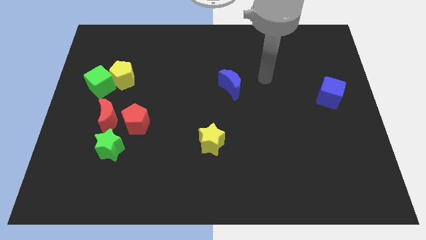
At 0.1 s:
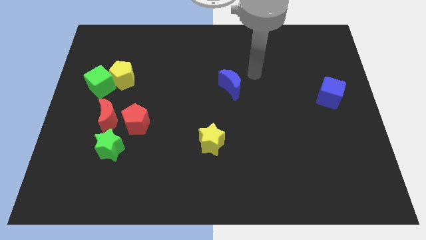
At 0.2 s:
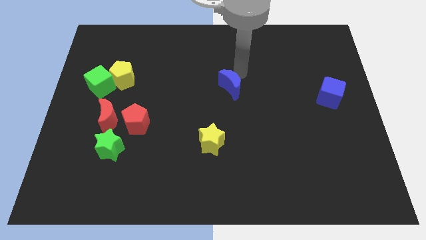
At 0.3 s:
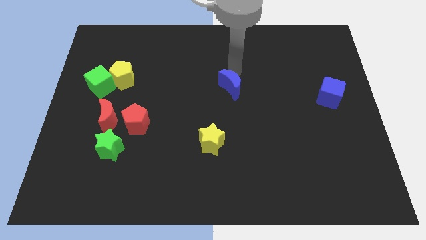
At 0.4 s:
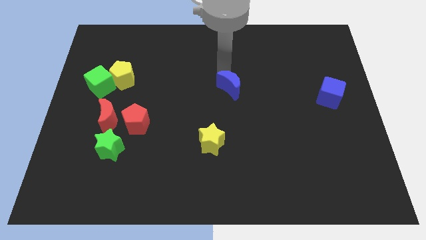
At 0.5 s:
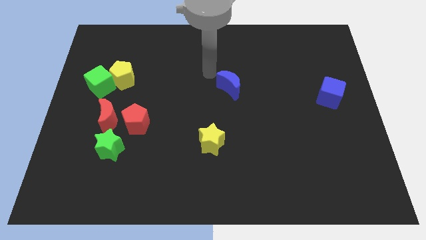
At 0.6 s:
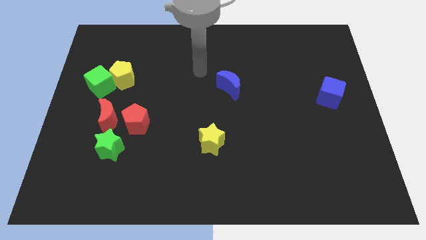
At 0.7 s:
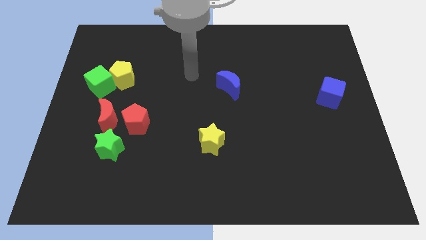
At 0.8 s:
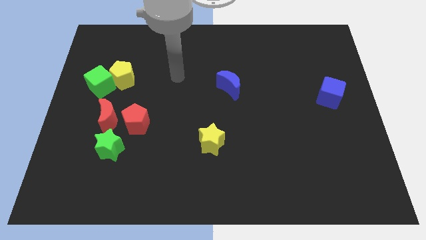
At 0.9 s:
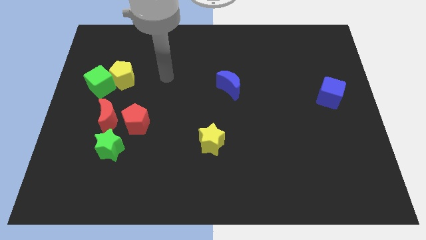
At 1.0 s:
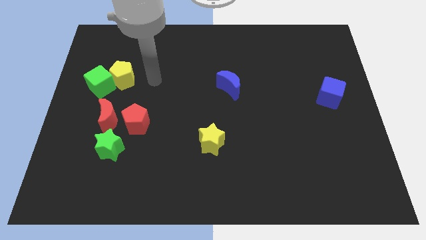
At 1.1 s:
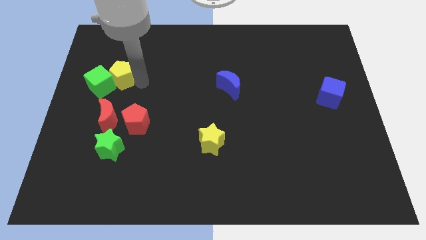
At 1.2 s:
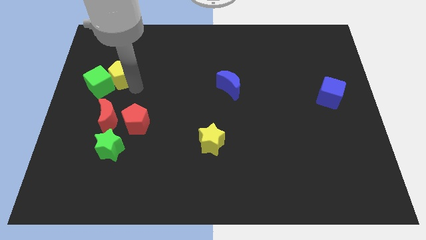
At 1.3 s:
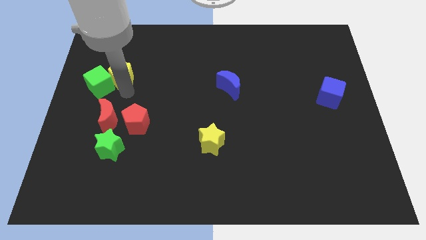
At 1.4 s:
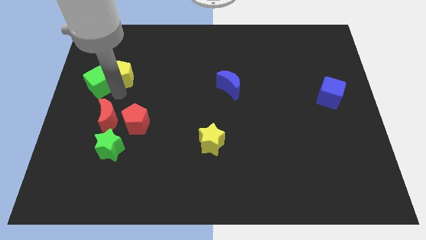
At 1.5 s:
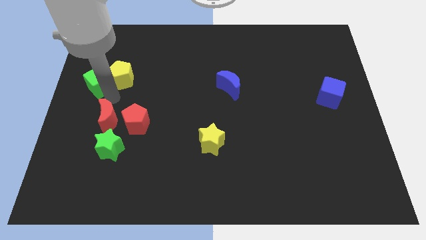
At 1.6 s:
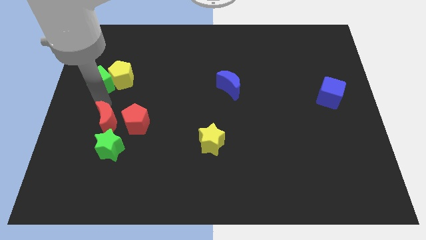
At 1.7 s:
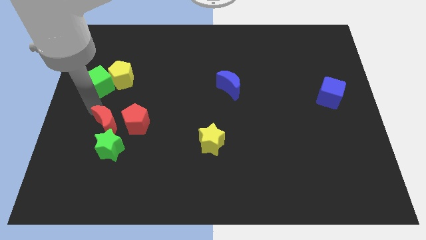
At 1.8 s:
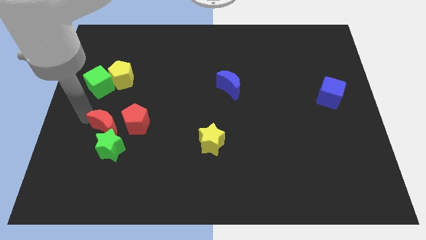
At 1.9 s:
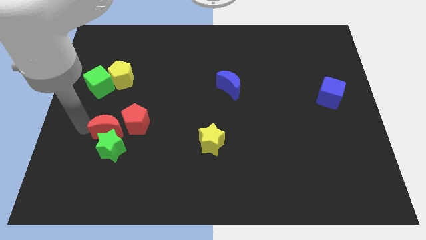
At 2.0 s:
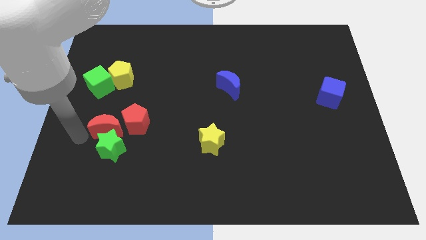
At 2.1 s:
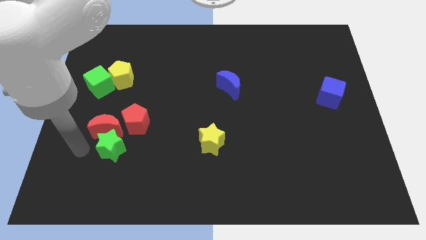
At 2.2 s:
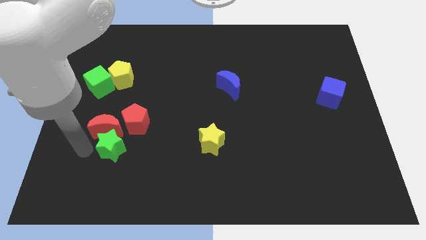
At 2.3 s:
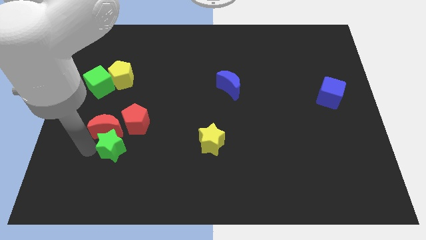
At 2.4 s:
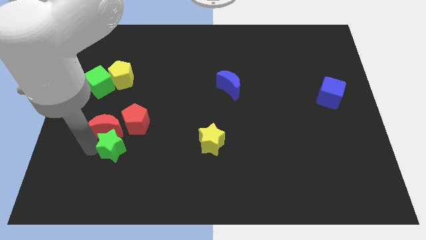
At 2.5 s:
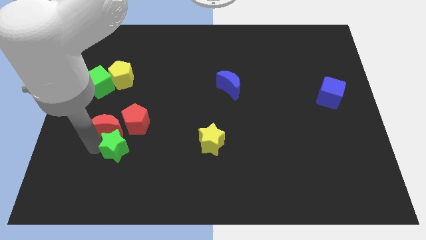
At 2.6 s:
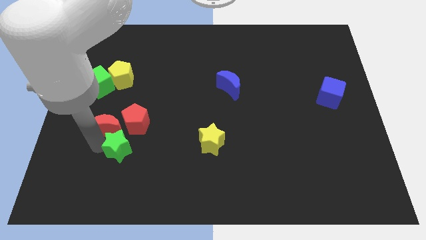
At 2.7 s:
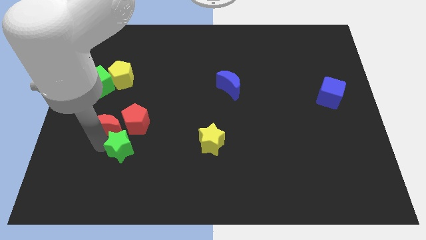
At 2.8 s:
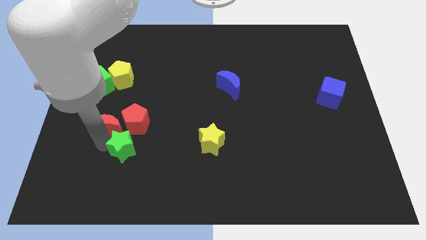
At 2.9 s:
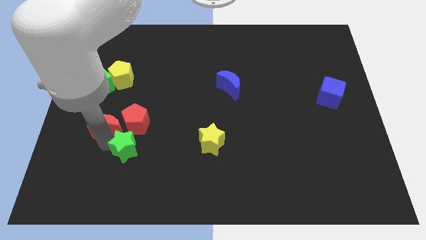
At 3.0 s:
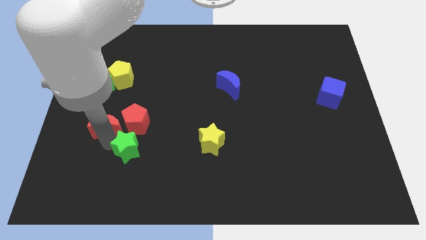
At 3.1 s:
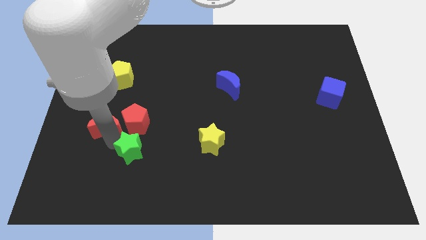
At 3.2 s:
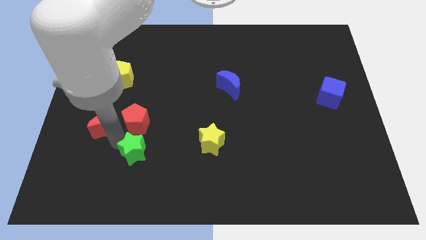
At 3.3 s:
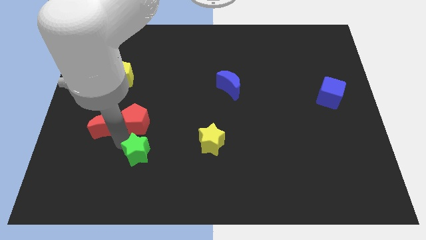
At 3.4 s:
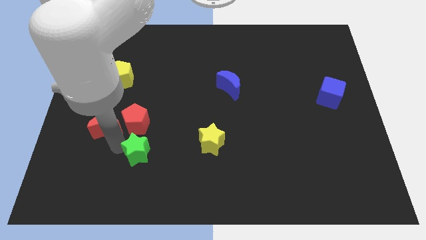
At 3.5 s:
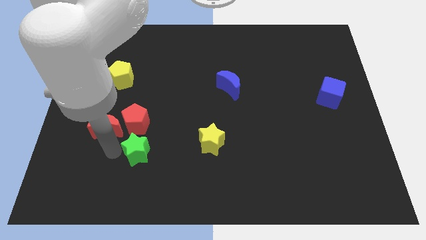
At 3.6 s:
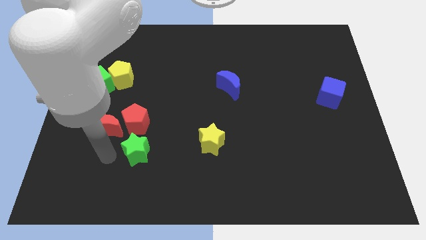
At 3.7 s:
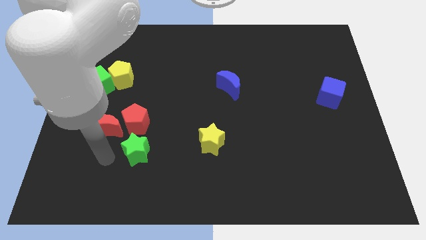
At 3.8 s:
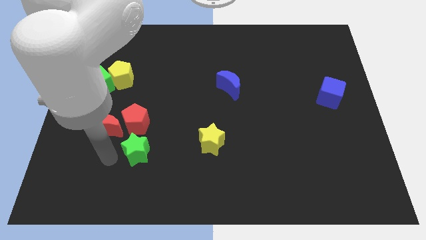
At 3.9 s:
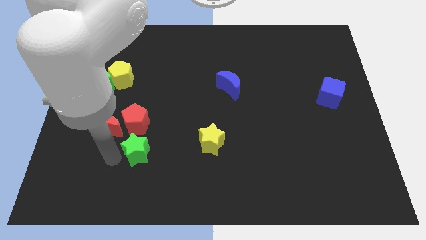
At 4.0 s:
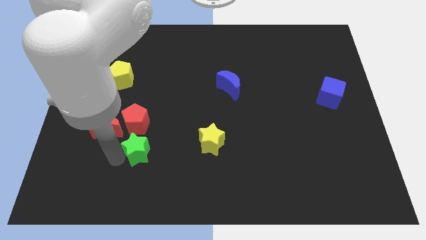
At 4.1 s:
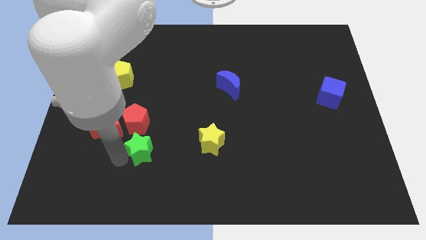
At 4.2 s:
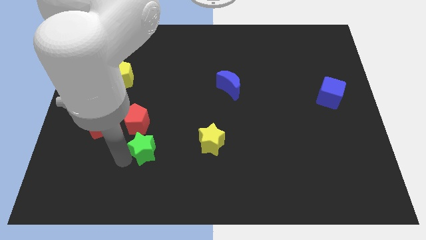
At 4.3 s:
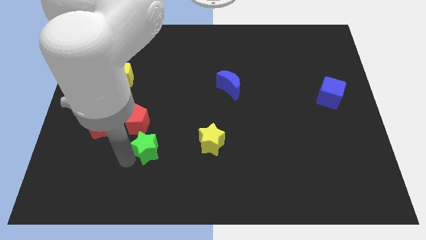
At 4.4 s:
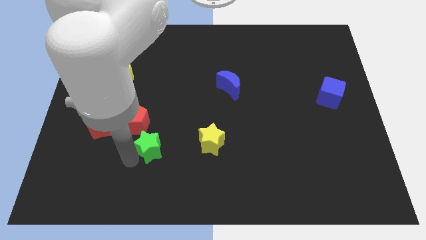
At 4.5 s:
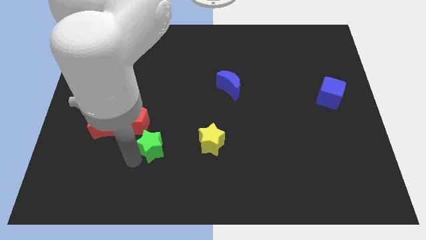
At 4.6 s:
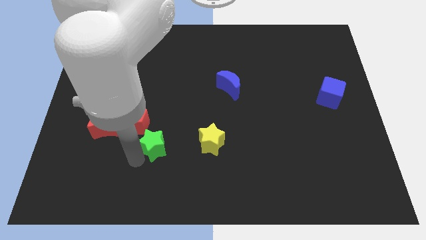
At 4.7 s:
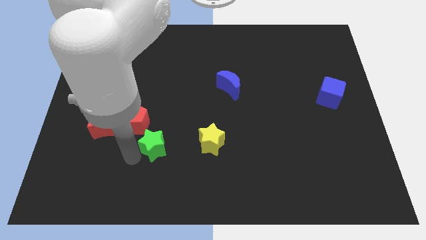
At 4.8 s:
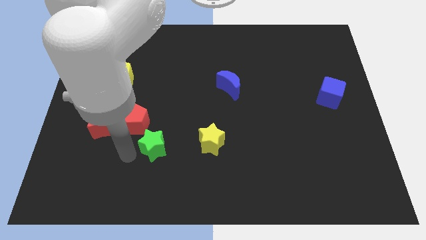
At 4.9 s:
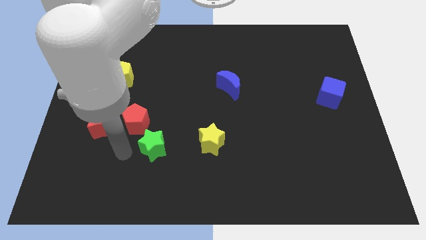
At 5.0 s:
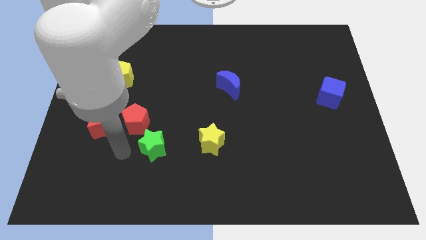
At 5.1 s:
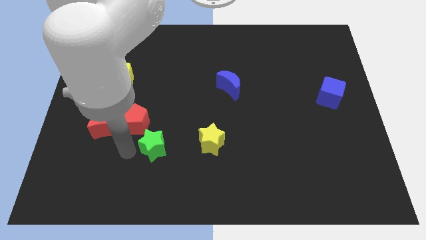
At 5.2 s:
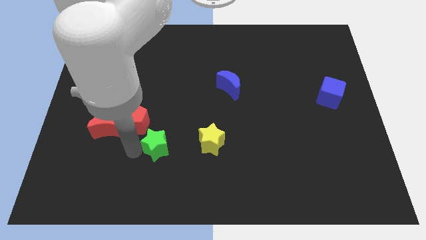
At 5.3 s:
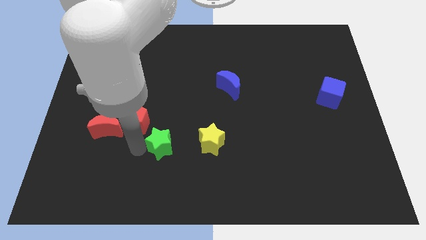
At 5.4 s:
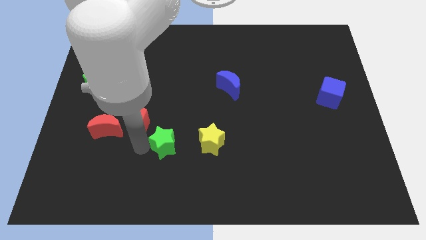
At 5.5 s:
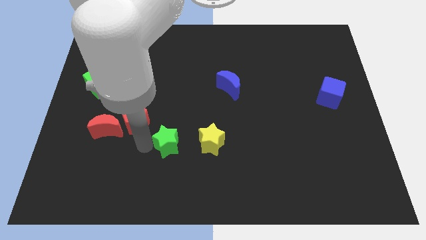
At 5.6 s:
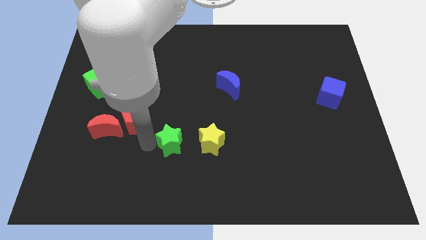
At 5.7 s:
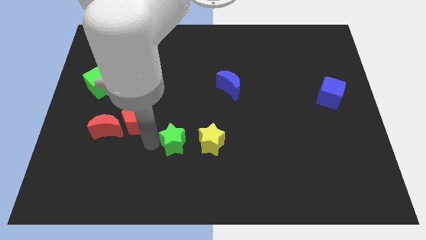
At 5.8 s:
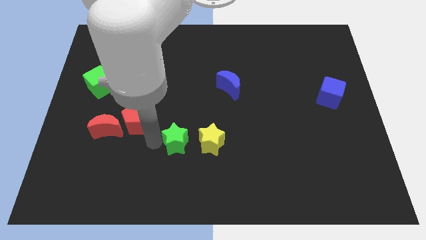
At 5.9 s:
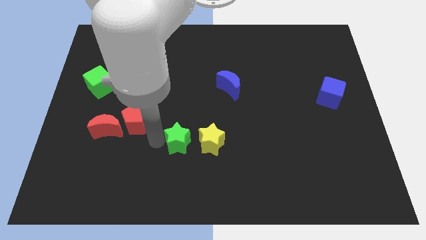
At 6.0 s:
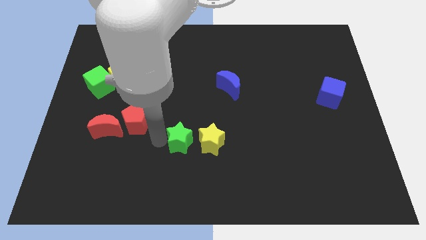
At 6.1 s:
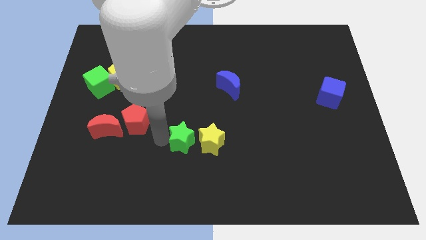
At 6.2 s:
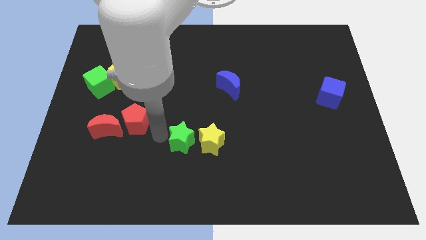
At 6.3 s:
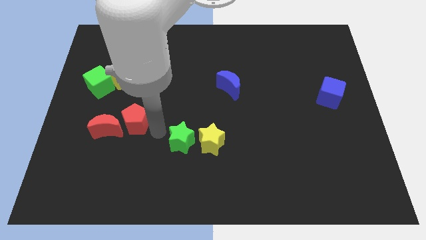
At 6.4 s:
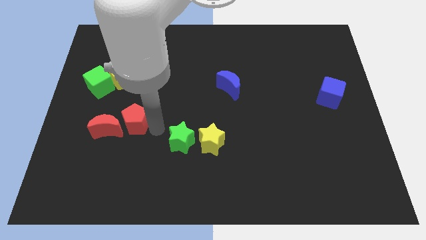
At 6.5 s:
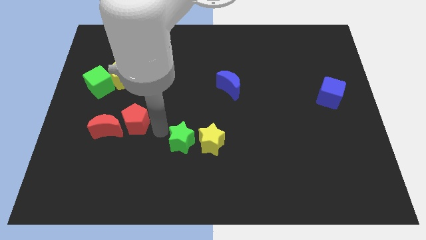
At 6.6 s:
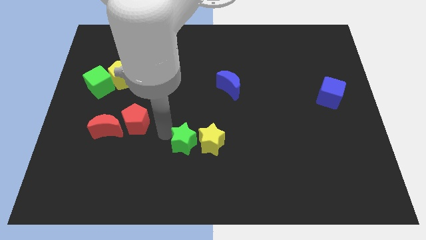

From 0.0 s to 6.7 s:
push the green star close to the yellow star

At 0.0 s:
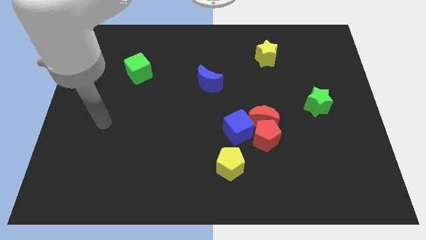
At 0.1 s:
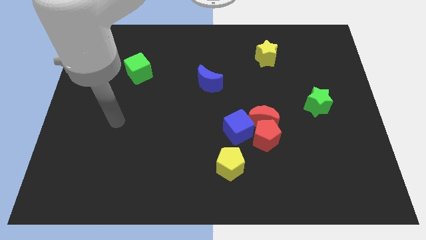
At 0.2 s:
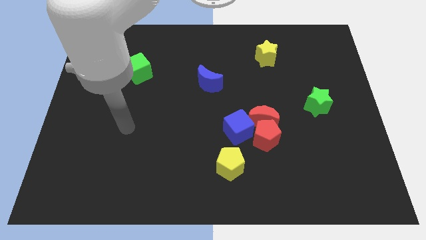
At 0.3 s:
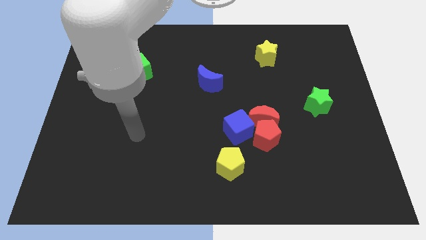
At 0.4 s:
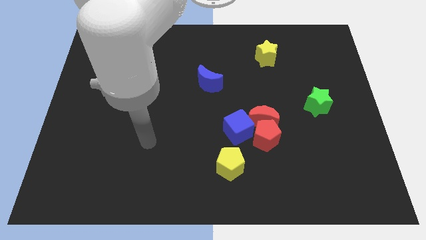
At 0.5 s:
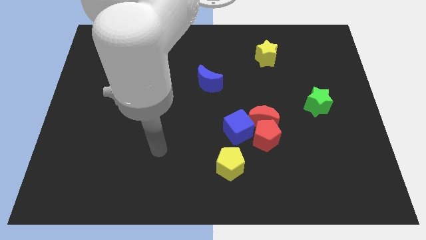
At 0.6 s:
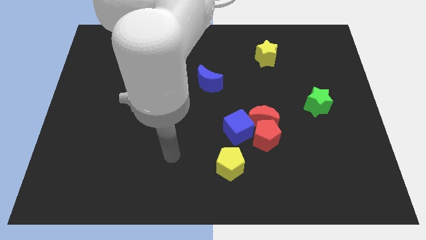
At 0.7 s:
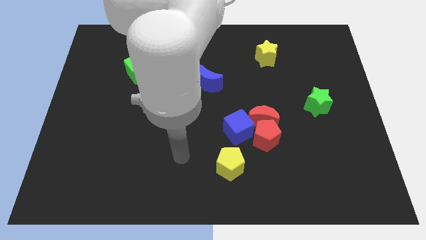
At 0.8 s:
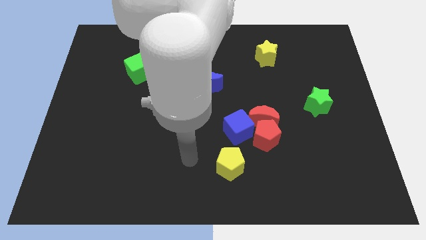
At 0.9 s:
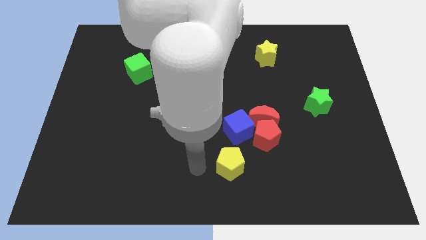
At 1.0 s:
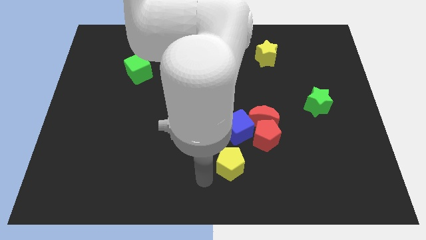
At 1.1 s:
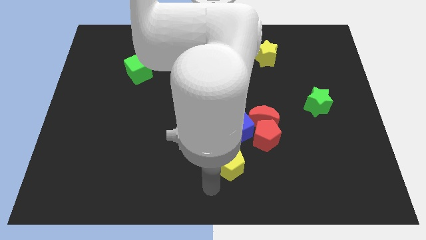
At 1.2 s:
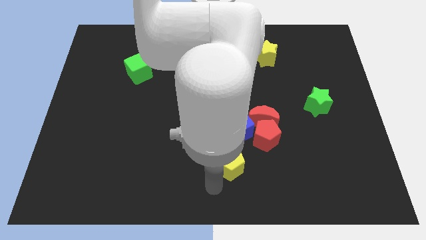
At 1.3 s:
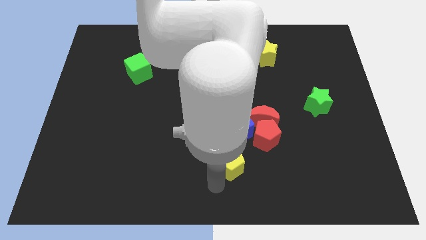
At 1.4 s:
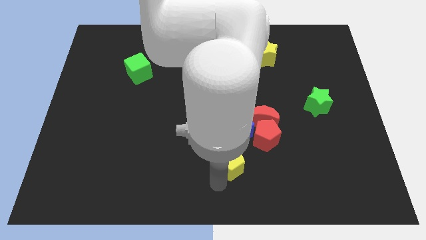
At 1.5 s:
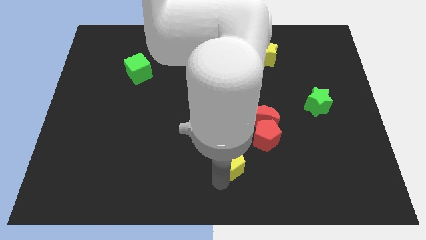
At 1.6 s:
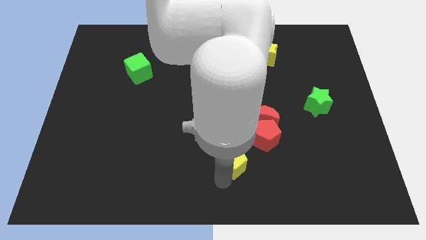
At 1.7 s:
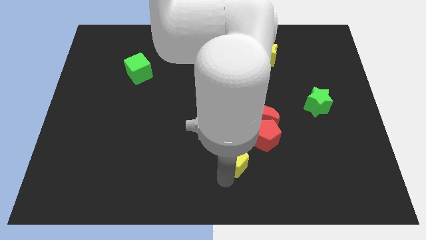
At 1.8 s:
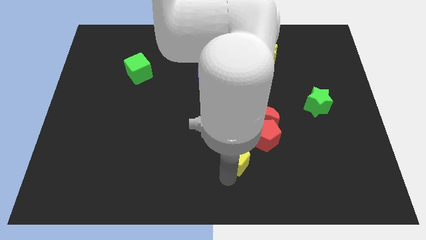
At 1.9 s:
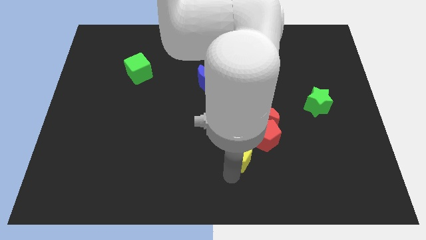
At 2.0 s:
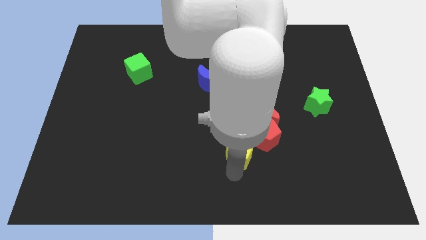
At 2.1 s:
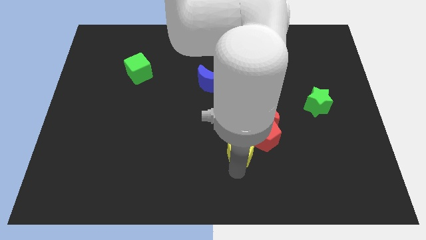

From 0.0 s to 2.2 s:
put the yellow pentagon close to the blue cube
